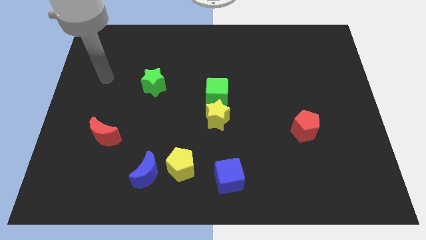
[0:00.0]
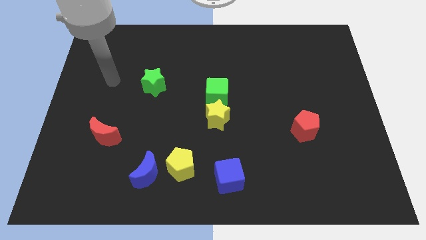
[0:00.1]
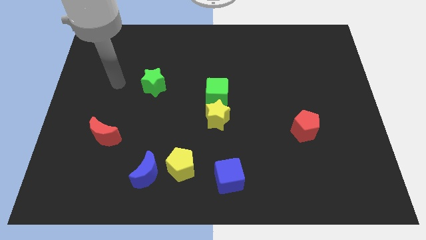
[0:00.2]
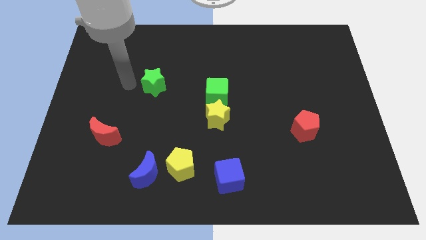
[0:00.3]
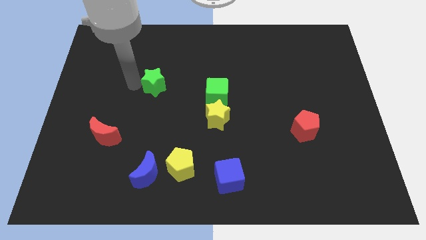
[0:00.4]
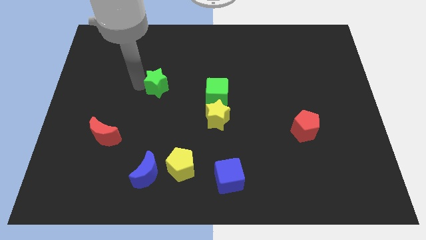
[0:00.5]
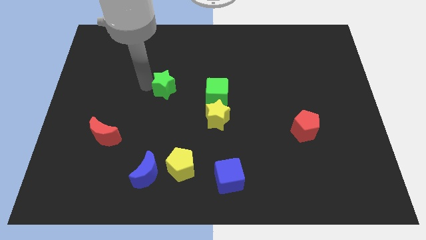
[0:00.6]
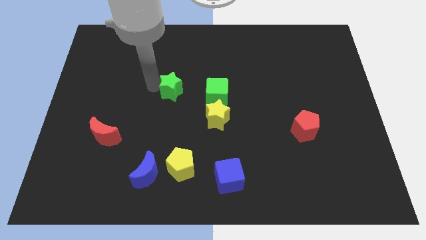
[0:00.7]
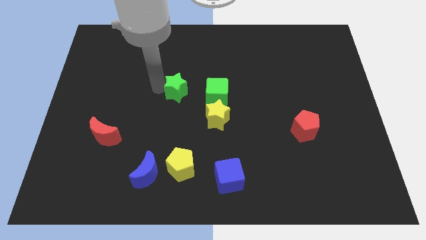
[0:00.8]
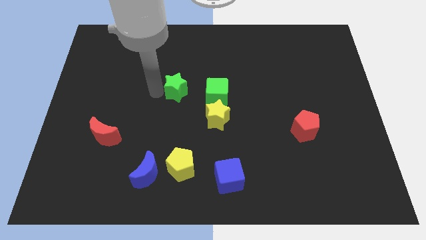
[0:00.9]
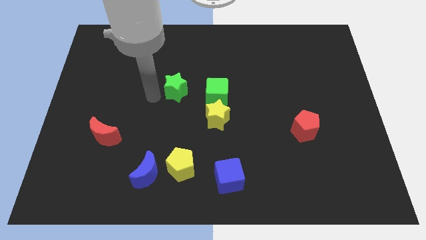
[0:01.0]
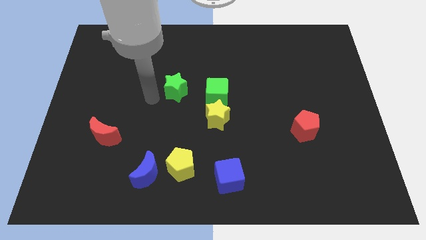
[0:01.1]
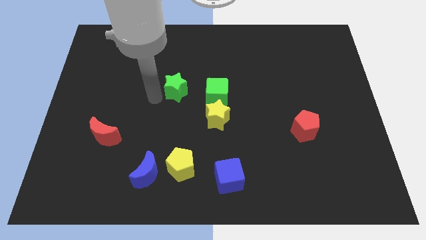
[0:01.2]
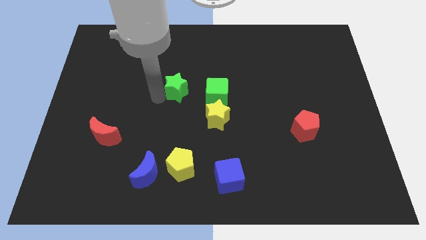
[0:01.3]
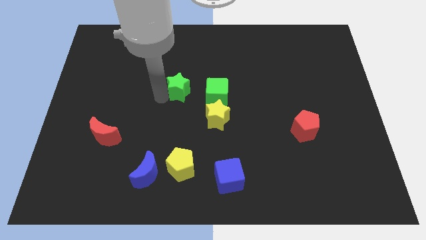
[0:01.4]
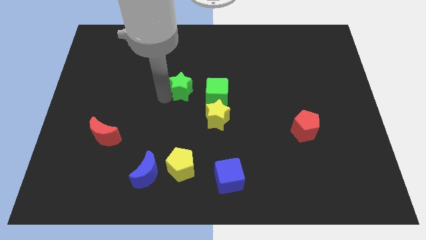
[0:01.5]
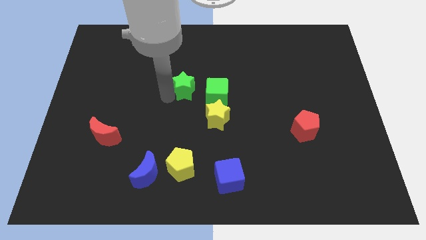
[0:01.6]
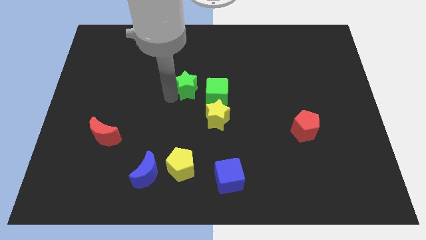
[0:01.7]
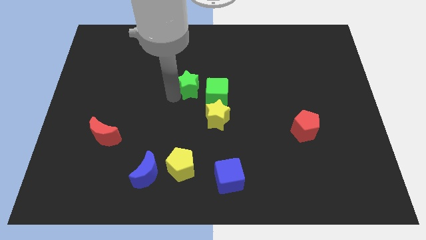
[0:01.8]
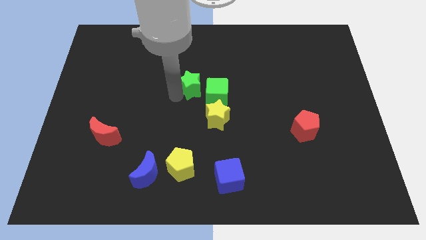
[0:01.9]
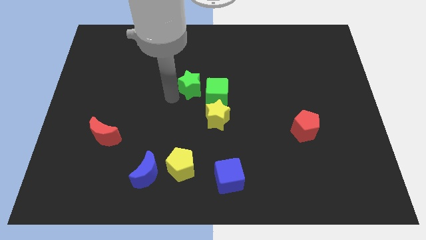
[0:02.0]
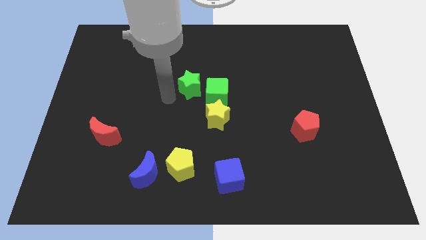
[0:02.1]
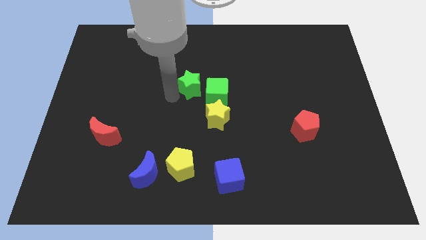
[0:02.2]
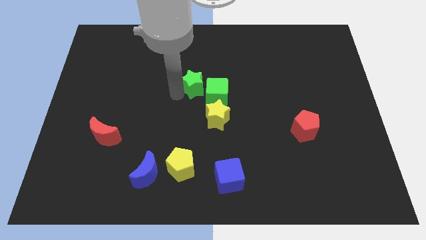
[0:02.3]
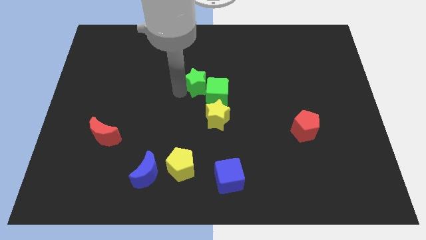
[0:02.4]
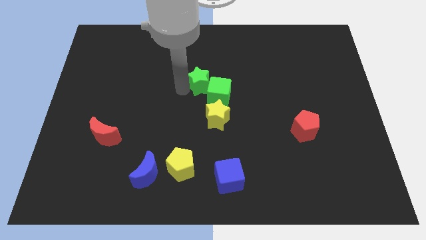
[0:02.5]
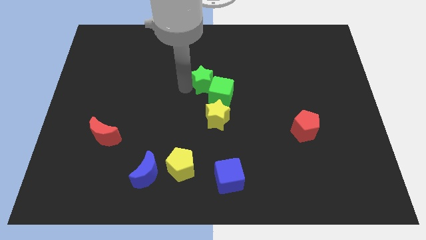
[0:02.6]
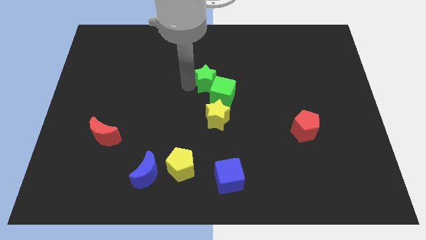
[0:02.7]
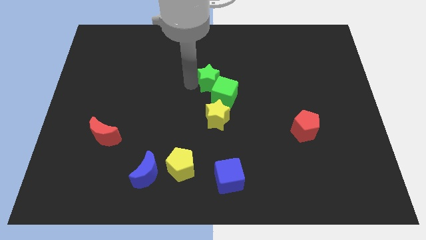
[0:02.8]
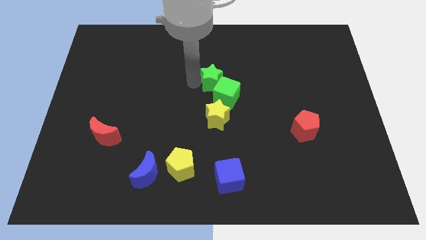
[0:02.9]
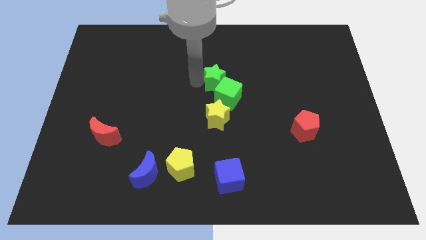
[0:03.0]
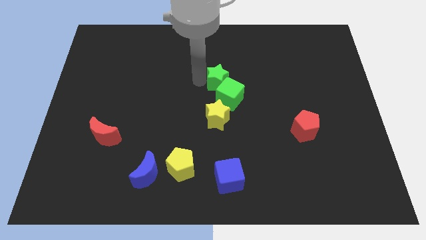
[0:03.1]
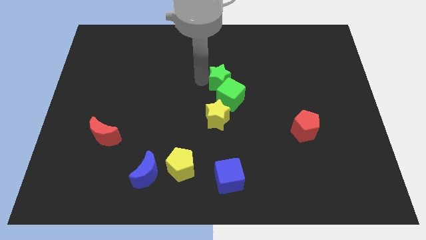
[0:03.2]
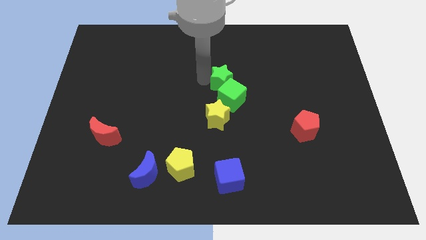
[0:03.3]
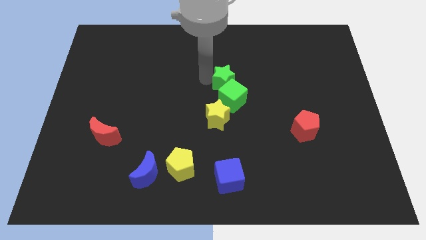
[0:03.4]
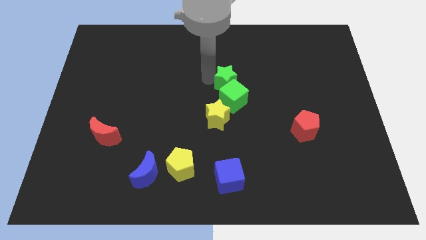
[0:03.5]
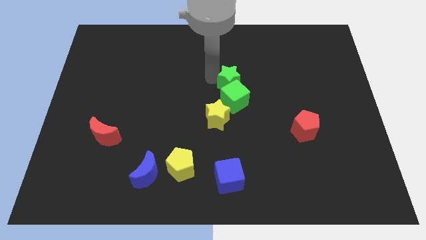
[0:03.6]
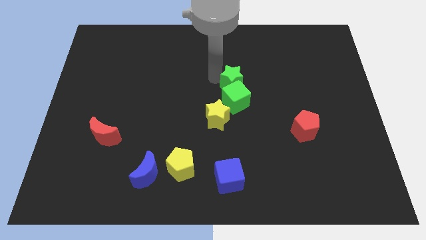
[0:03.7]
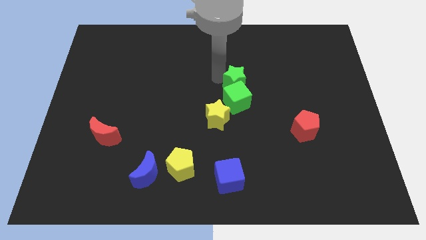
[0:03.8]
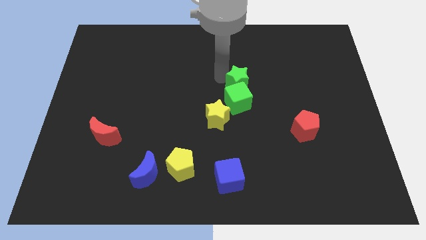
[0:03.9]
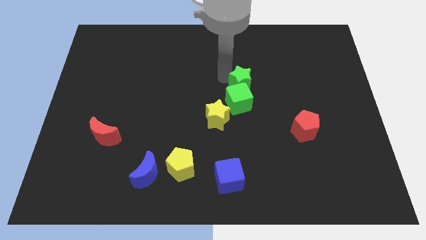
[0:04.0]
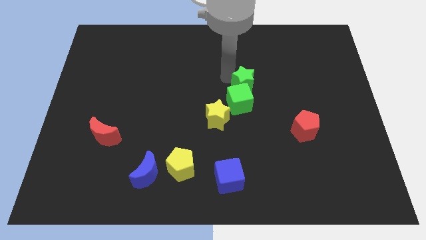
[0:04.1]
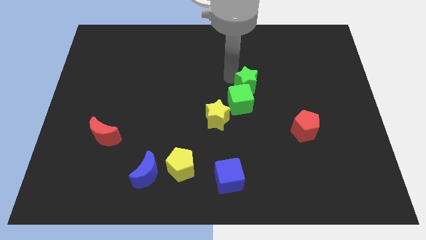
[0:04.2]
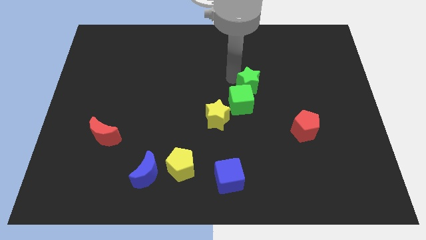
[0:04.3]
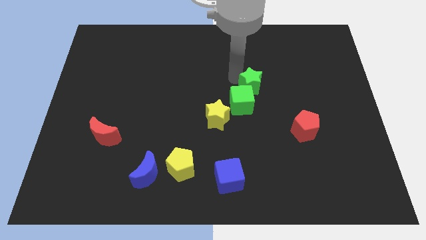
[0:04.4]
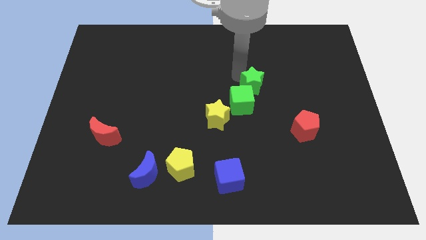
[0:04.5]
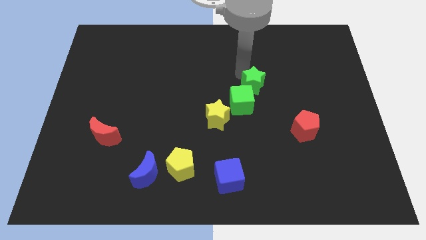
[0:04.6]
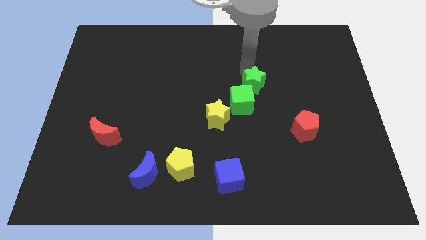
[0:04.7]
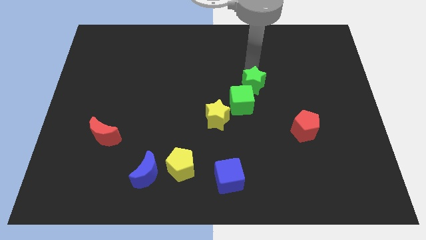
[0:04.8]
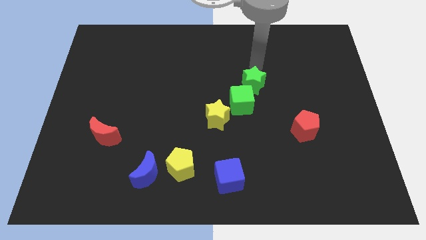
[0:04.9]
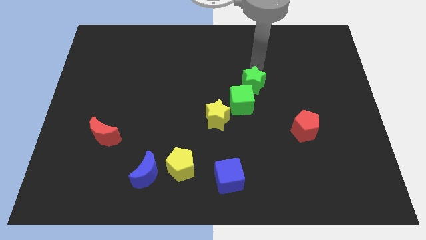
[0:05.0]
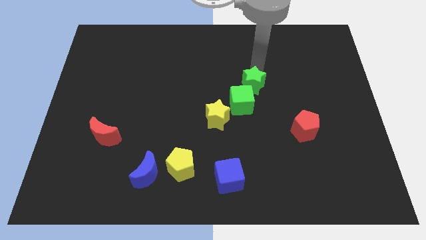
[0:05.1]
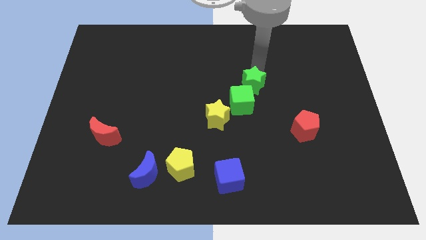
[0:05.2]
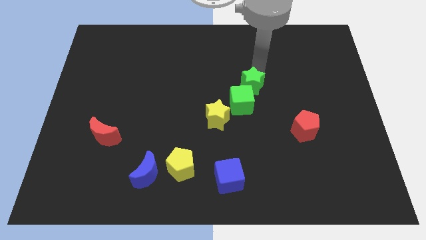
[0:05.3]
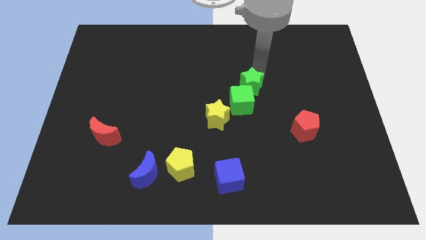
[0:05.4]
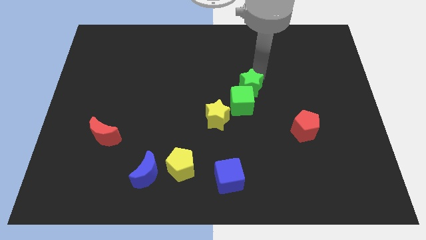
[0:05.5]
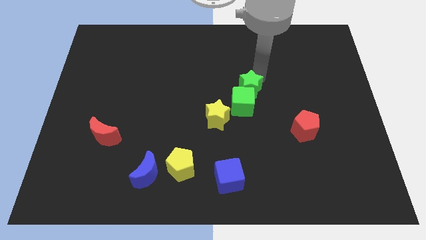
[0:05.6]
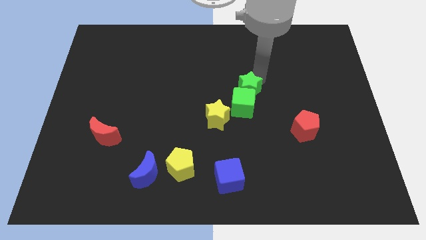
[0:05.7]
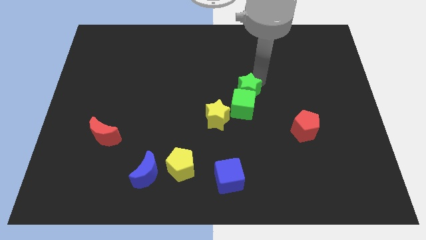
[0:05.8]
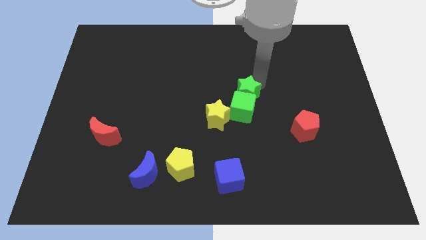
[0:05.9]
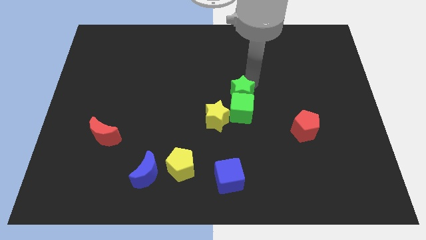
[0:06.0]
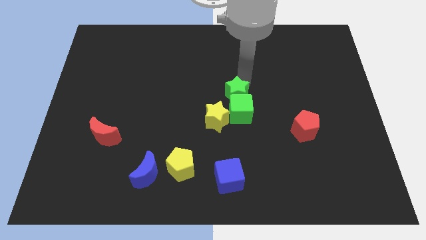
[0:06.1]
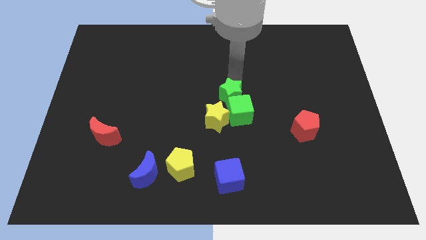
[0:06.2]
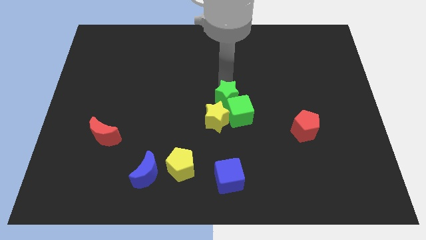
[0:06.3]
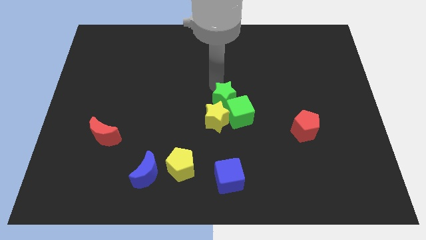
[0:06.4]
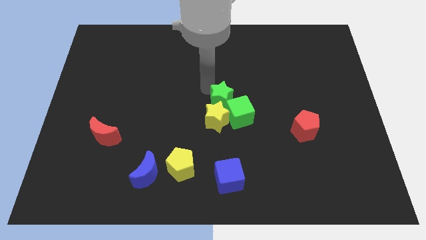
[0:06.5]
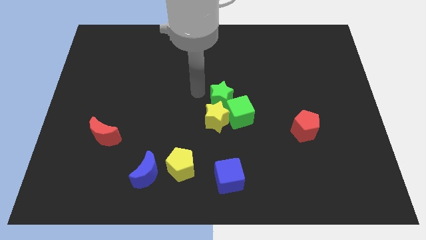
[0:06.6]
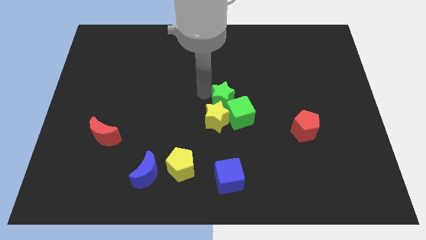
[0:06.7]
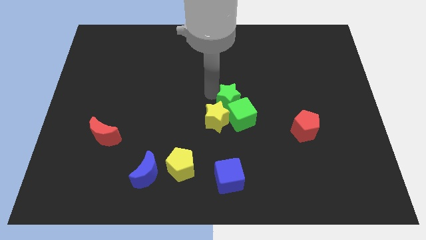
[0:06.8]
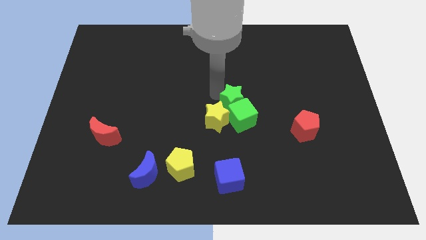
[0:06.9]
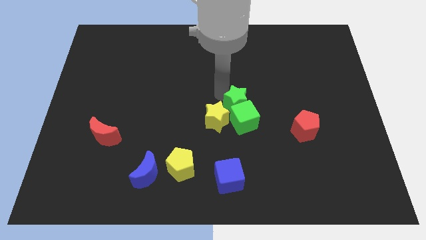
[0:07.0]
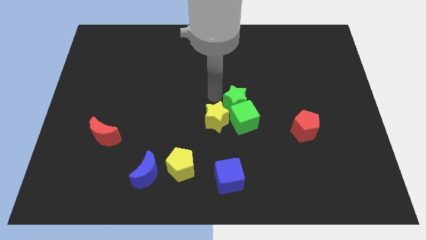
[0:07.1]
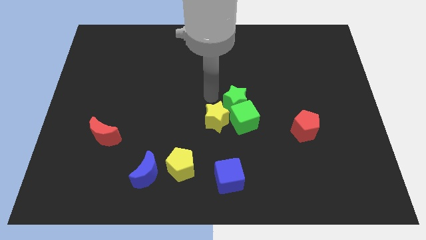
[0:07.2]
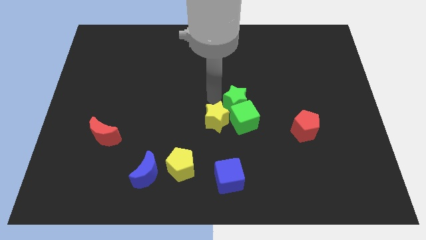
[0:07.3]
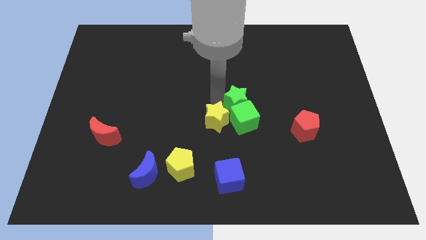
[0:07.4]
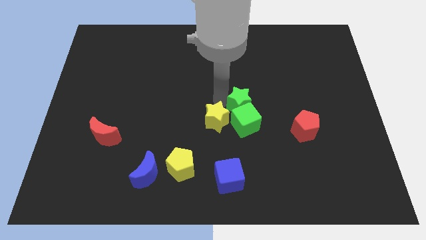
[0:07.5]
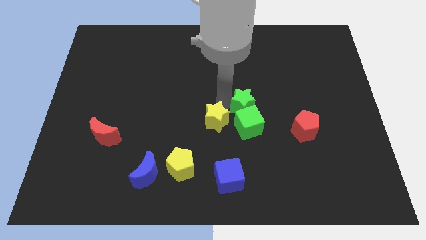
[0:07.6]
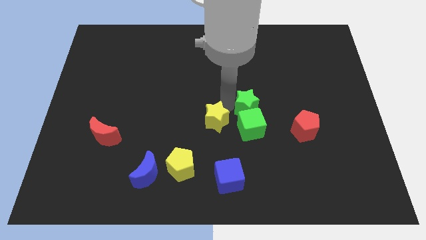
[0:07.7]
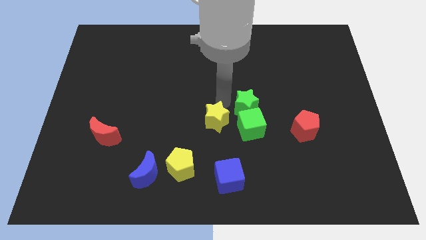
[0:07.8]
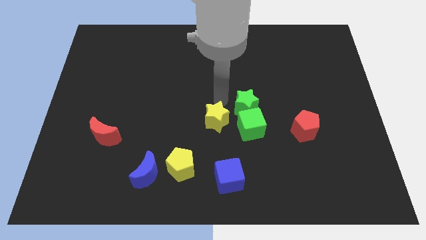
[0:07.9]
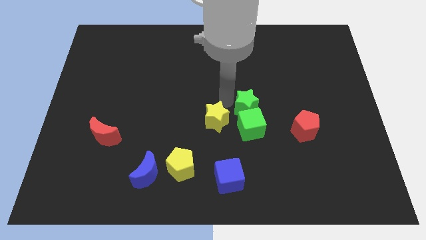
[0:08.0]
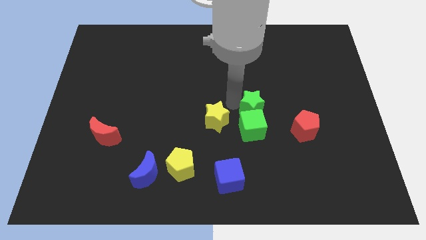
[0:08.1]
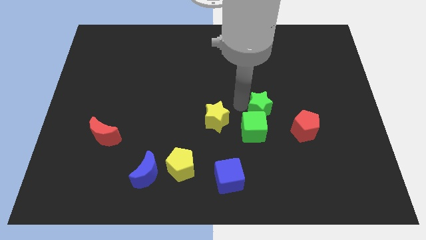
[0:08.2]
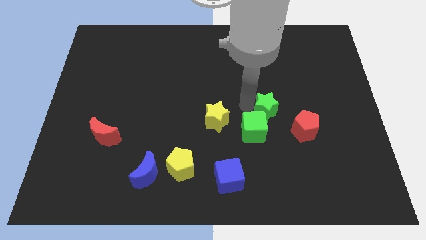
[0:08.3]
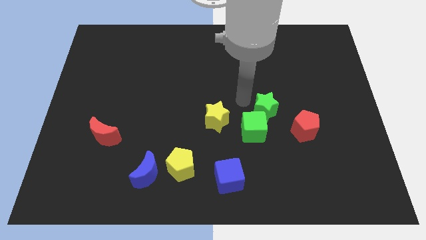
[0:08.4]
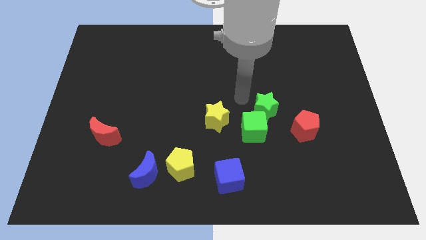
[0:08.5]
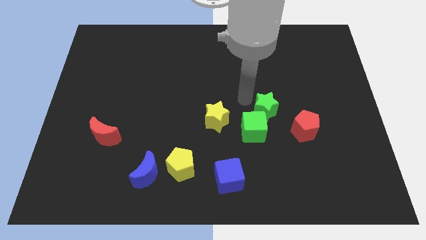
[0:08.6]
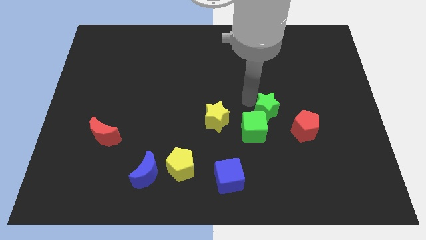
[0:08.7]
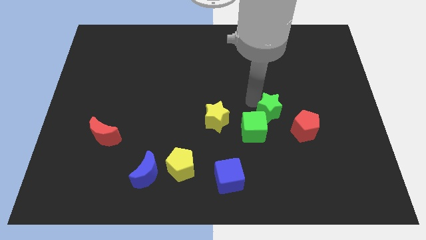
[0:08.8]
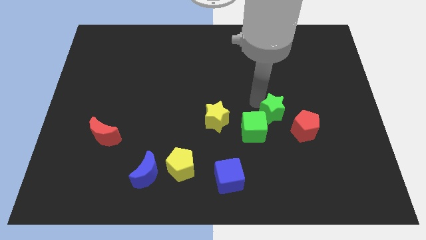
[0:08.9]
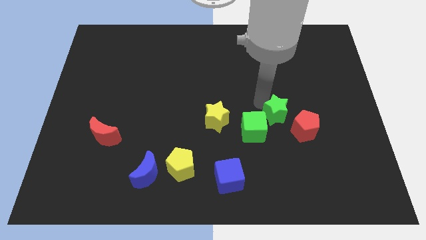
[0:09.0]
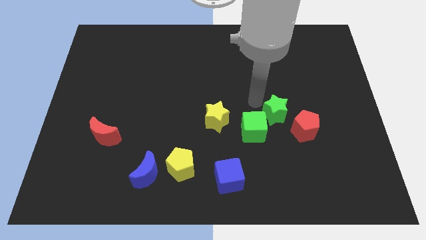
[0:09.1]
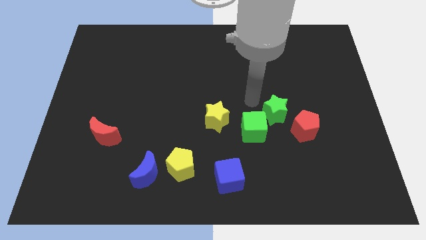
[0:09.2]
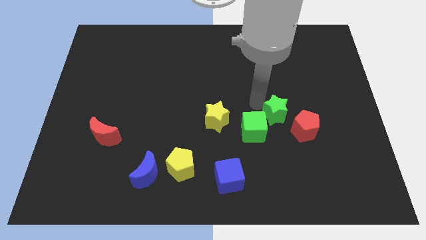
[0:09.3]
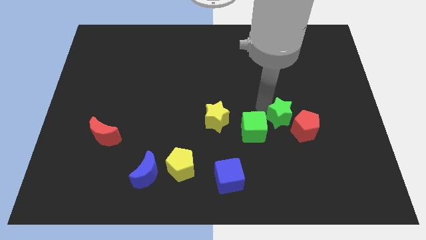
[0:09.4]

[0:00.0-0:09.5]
move the green star close to the red pentagon
